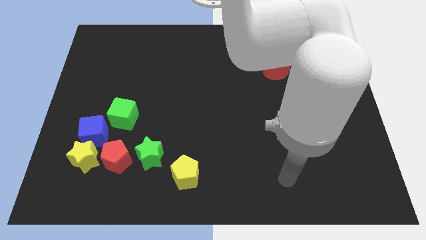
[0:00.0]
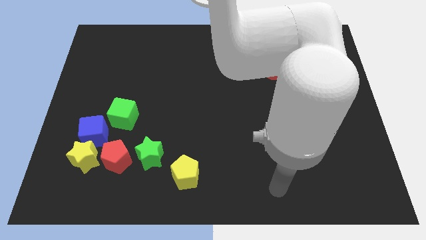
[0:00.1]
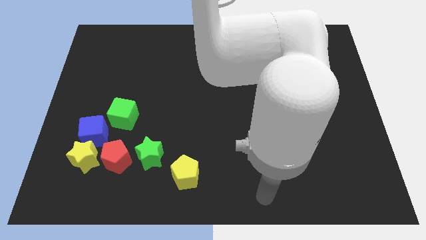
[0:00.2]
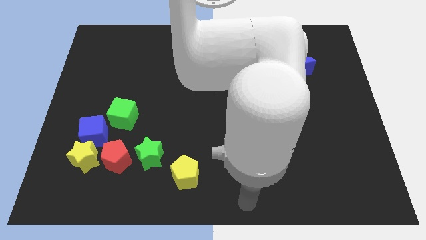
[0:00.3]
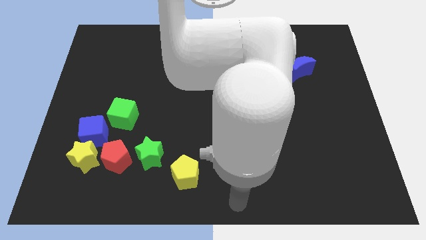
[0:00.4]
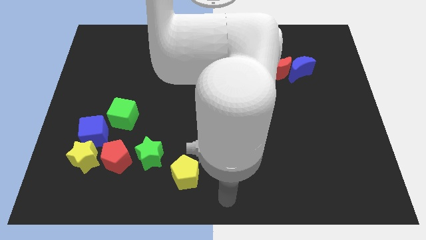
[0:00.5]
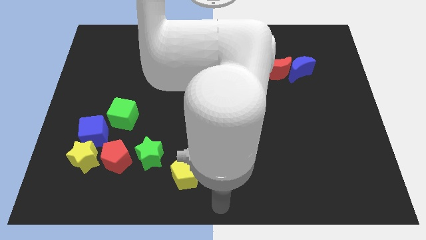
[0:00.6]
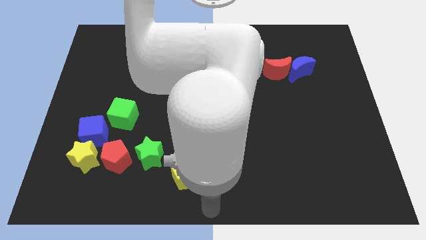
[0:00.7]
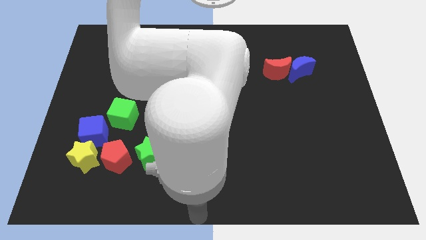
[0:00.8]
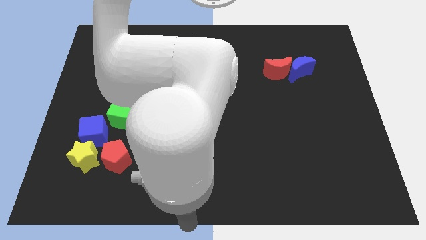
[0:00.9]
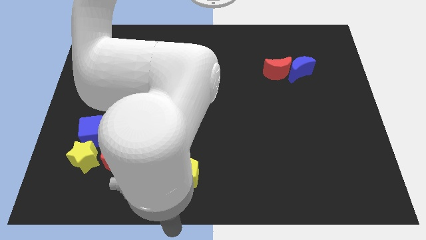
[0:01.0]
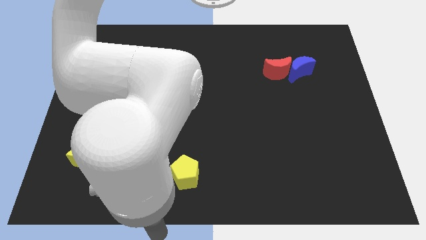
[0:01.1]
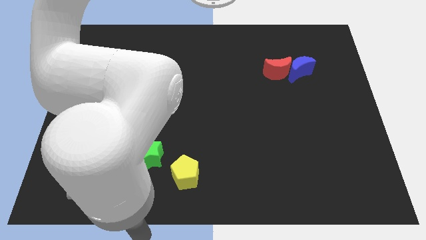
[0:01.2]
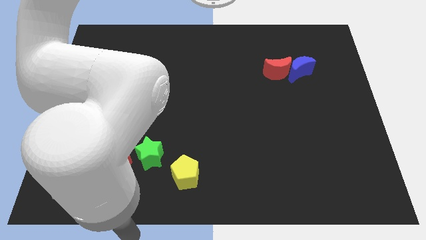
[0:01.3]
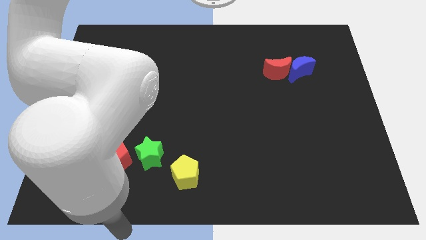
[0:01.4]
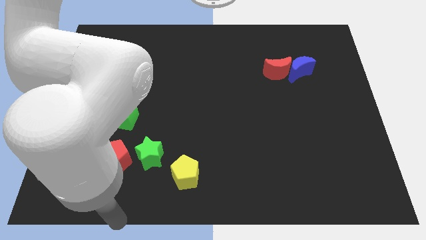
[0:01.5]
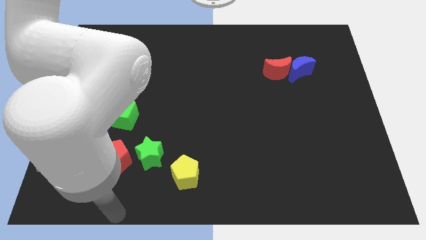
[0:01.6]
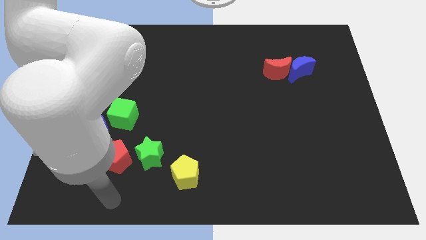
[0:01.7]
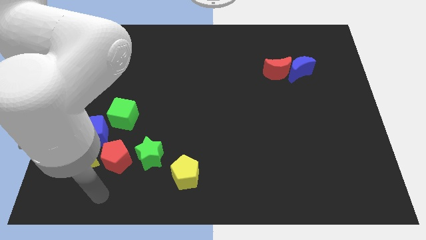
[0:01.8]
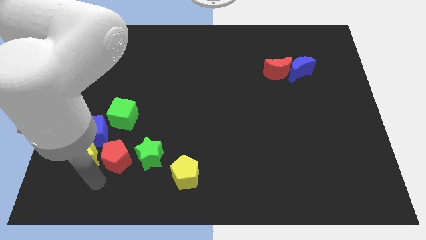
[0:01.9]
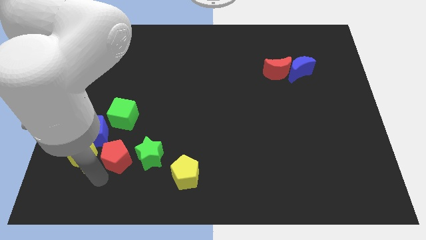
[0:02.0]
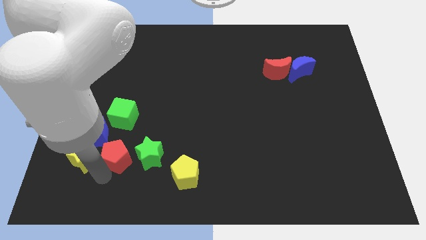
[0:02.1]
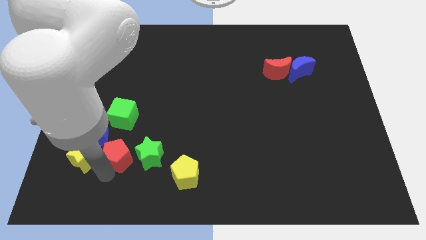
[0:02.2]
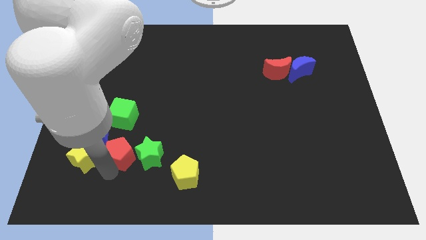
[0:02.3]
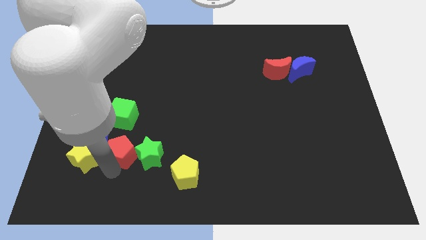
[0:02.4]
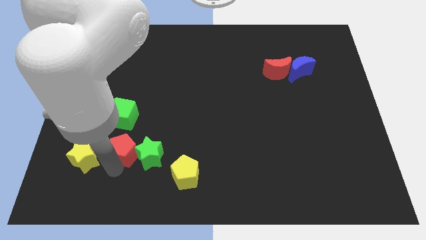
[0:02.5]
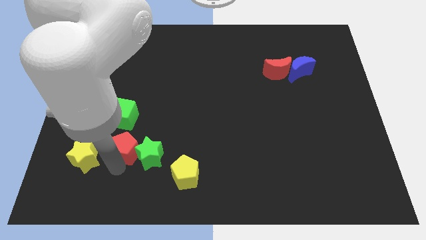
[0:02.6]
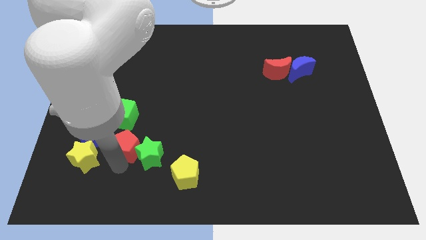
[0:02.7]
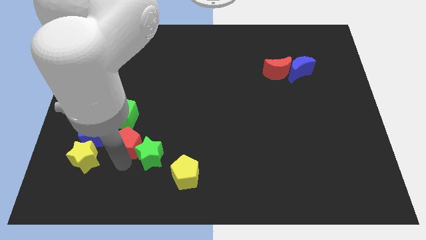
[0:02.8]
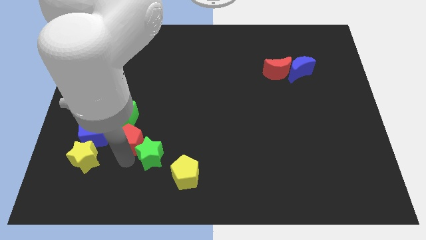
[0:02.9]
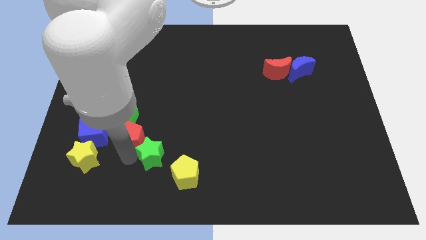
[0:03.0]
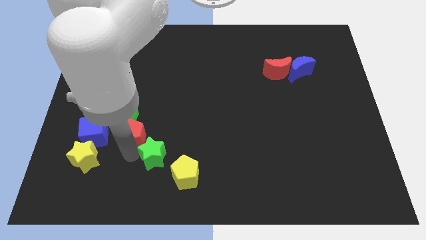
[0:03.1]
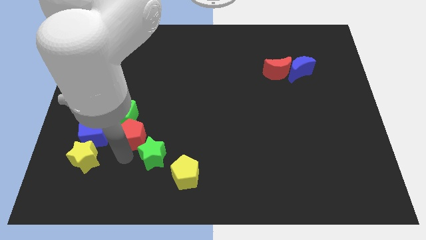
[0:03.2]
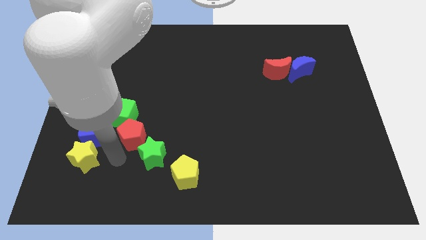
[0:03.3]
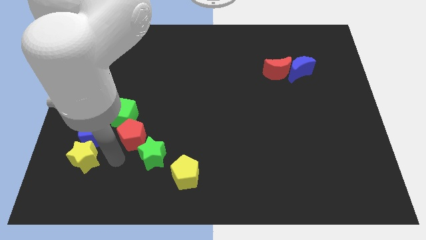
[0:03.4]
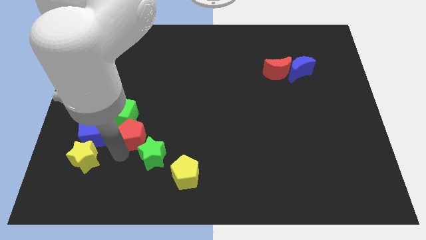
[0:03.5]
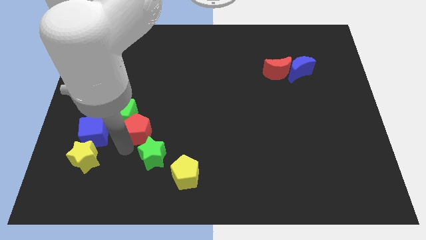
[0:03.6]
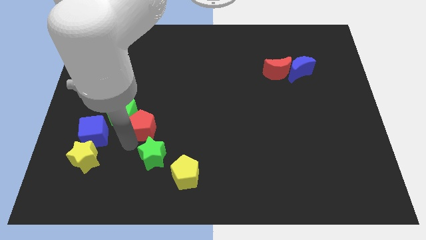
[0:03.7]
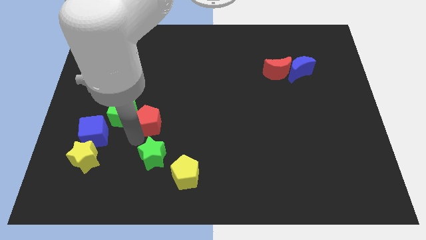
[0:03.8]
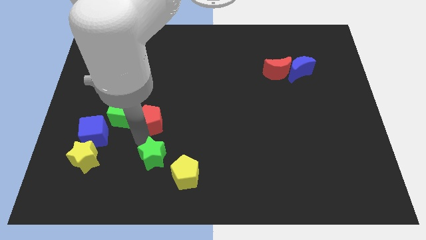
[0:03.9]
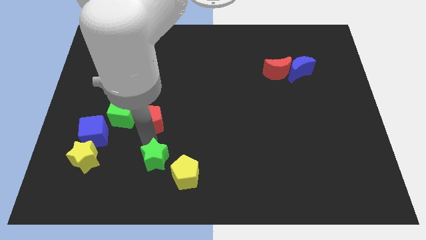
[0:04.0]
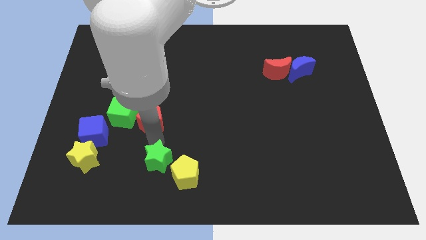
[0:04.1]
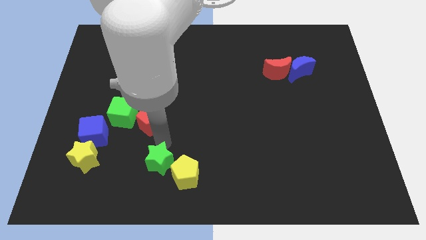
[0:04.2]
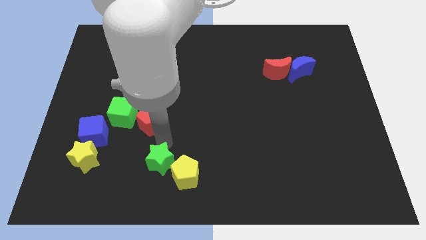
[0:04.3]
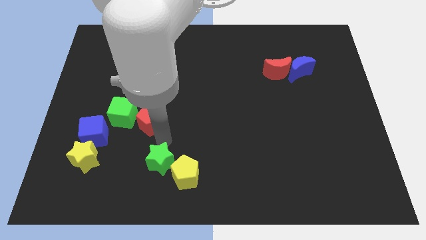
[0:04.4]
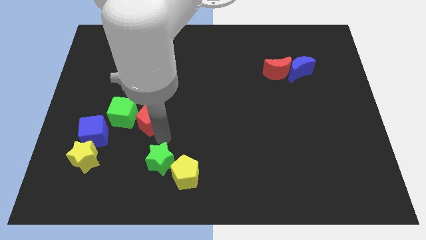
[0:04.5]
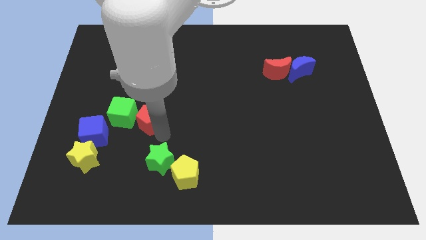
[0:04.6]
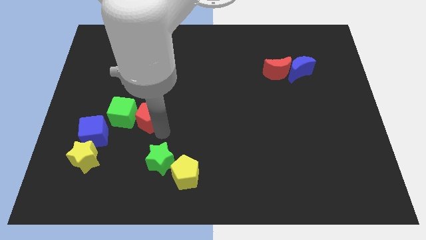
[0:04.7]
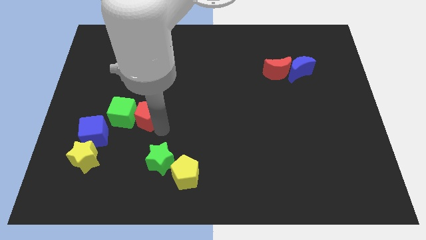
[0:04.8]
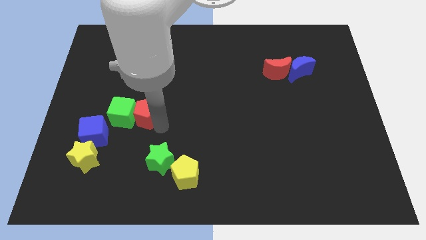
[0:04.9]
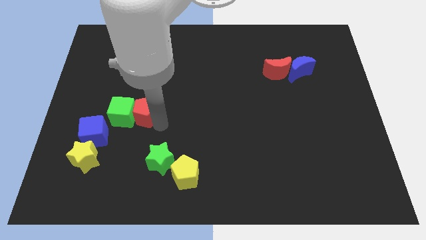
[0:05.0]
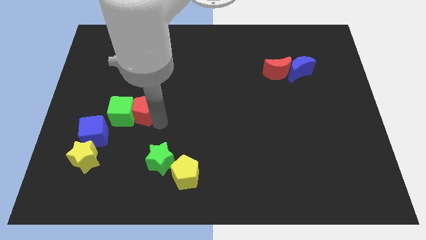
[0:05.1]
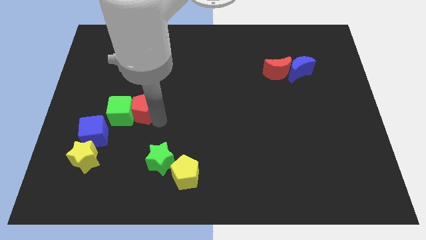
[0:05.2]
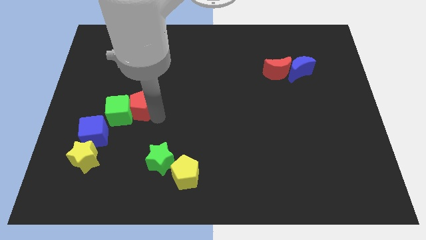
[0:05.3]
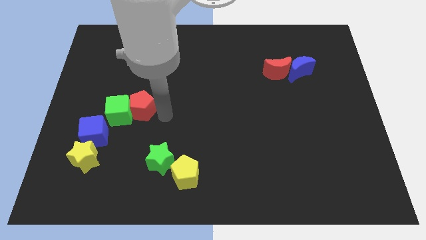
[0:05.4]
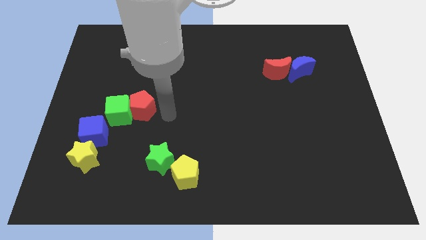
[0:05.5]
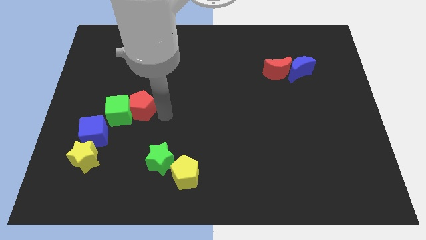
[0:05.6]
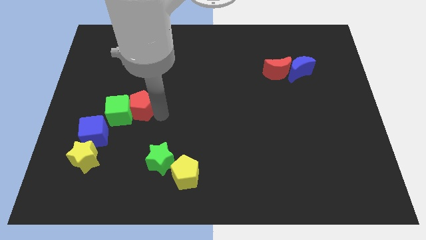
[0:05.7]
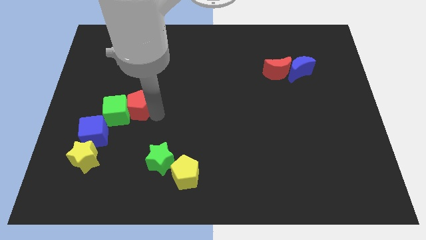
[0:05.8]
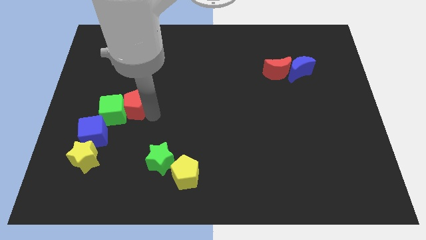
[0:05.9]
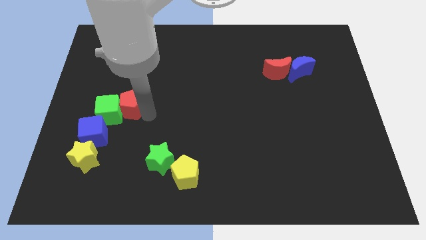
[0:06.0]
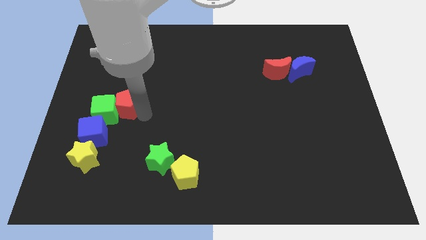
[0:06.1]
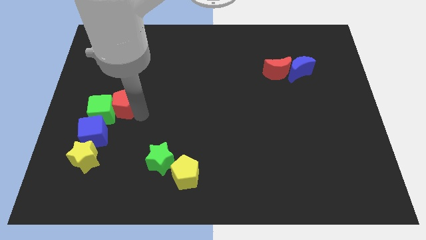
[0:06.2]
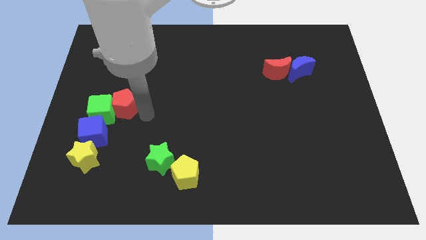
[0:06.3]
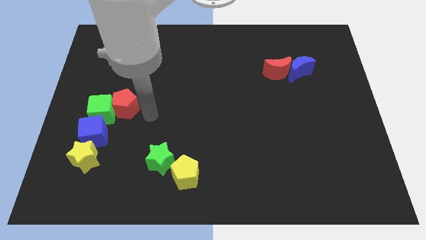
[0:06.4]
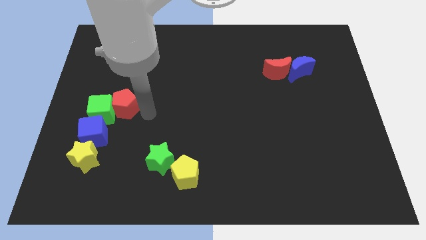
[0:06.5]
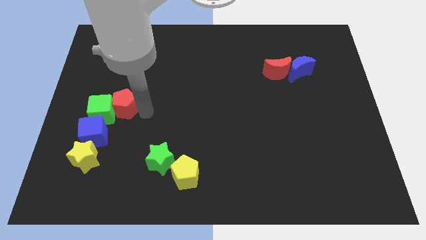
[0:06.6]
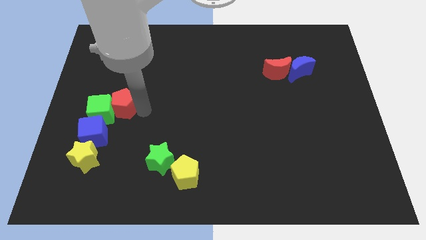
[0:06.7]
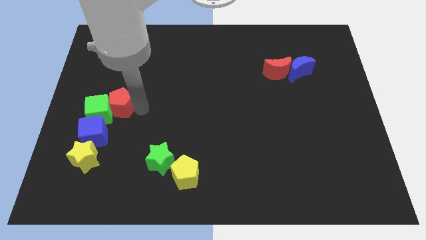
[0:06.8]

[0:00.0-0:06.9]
slide the red pentagon to the top of the blue cube
